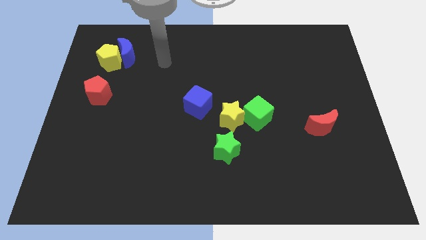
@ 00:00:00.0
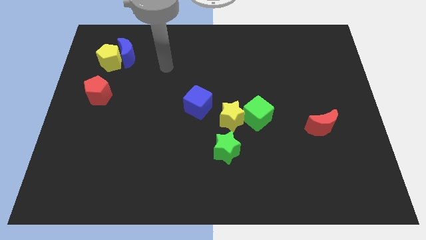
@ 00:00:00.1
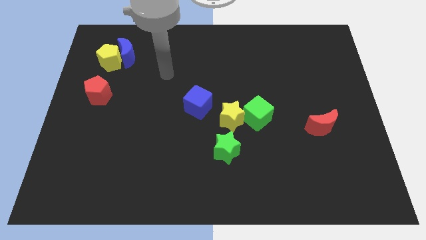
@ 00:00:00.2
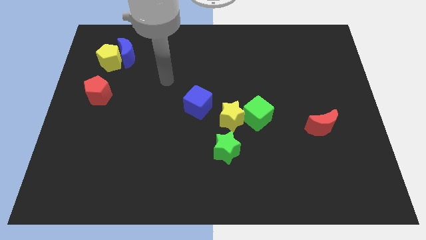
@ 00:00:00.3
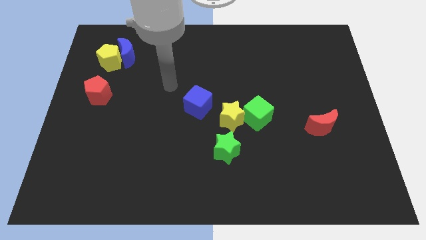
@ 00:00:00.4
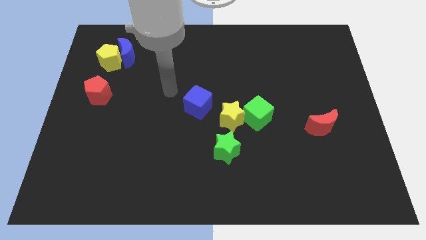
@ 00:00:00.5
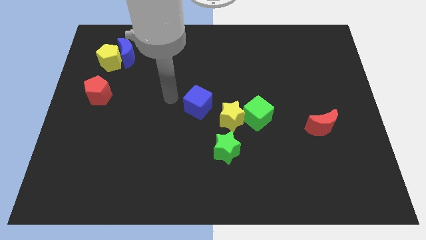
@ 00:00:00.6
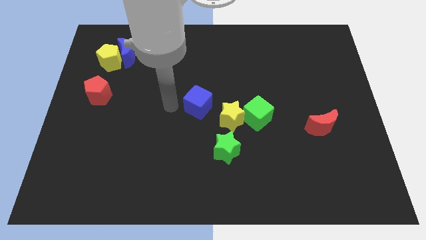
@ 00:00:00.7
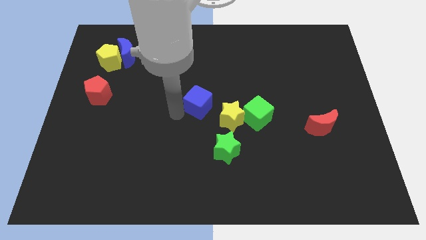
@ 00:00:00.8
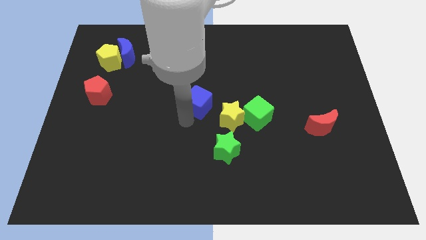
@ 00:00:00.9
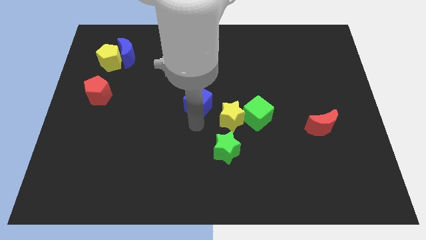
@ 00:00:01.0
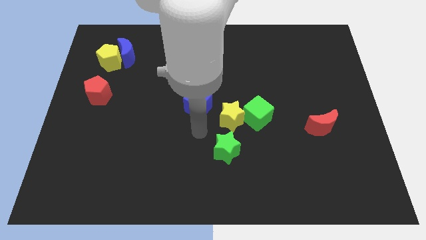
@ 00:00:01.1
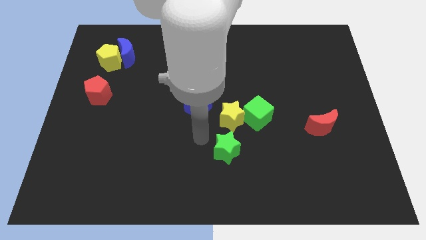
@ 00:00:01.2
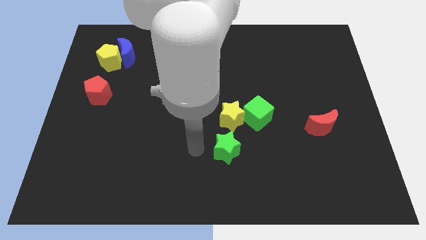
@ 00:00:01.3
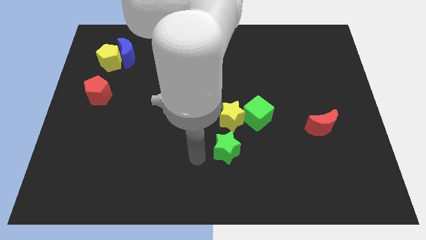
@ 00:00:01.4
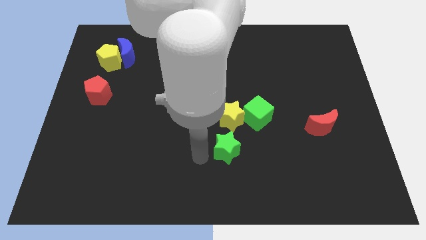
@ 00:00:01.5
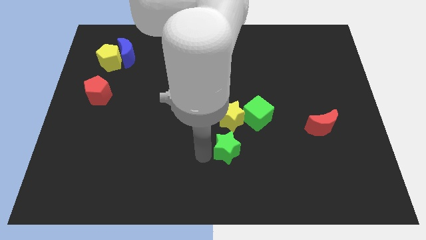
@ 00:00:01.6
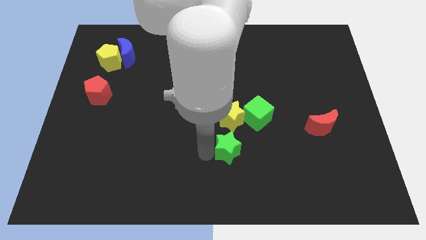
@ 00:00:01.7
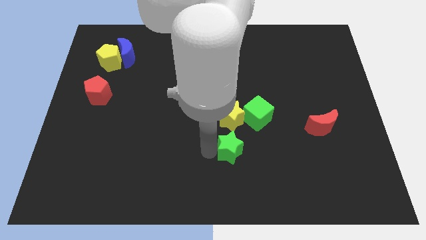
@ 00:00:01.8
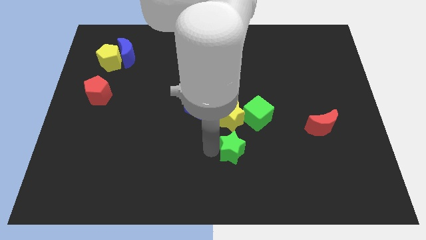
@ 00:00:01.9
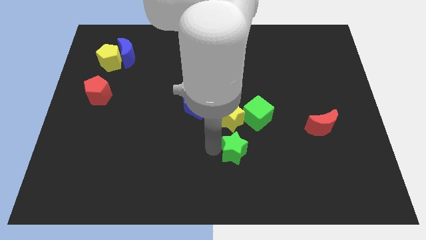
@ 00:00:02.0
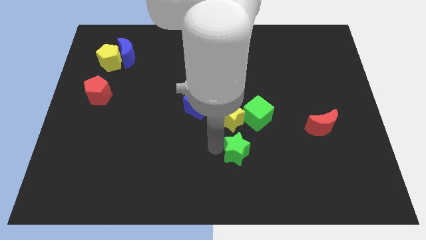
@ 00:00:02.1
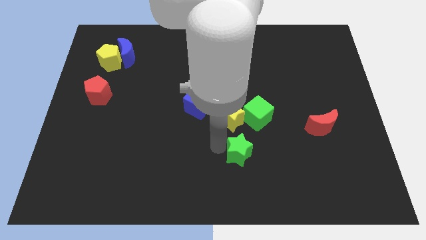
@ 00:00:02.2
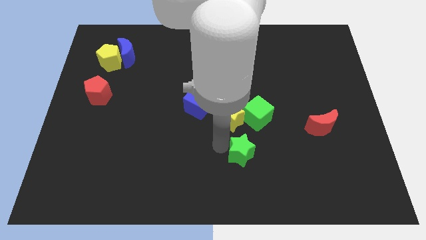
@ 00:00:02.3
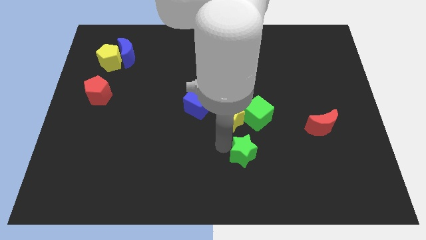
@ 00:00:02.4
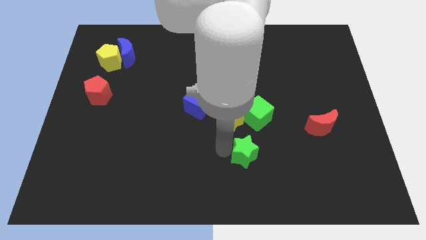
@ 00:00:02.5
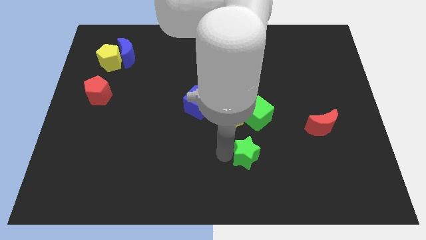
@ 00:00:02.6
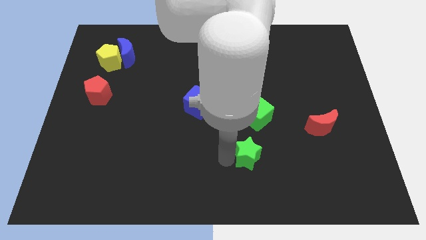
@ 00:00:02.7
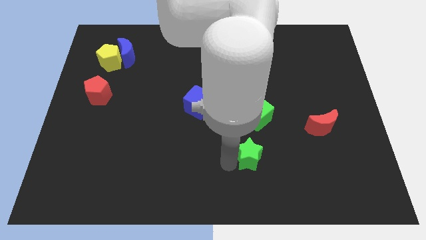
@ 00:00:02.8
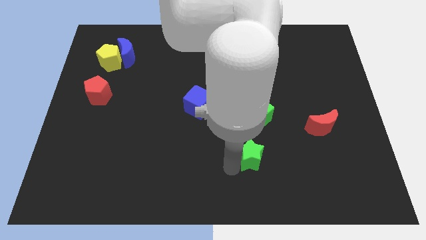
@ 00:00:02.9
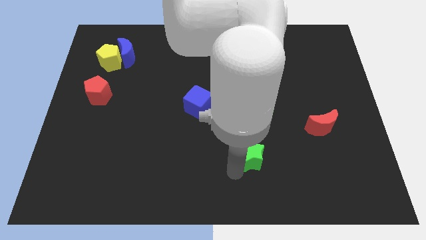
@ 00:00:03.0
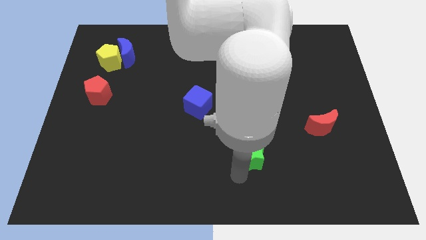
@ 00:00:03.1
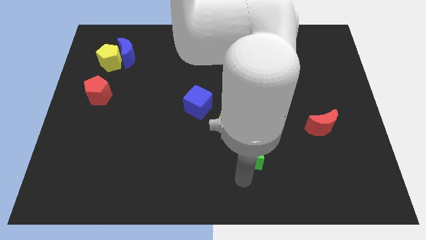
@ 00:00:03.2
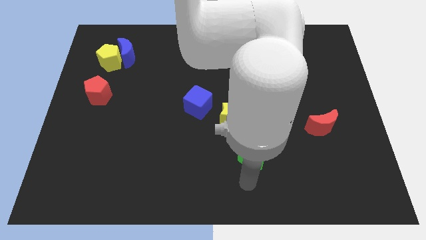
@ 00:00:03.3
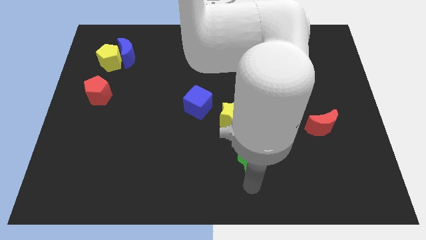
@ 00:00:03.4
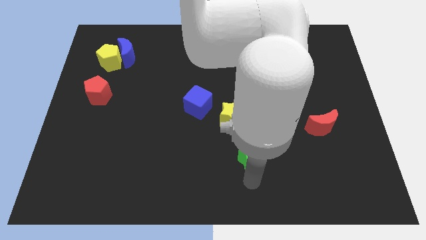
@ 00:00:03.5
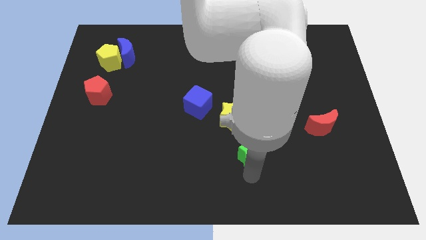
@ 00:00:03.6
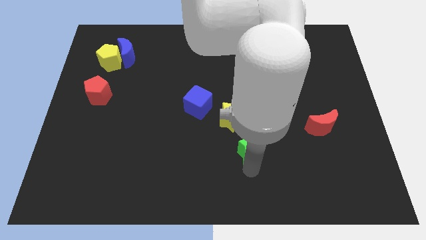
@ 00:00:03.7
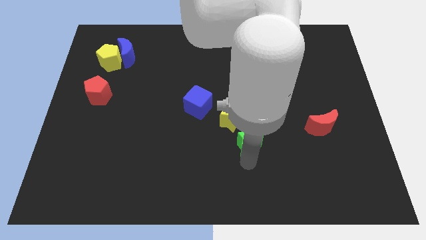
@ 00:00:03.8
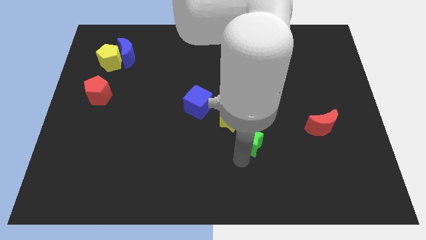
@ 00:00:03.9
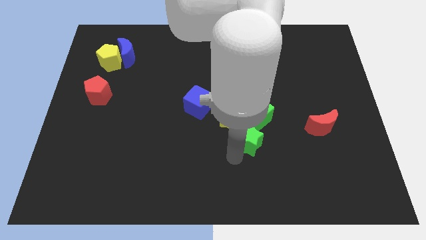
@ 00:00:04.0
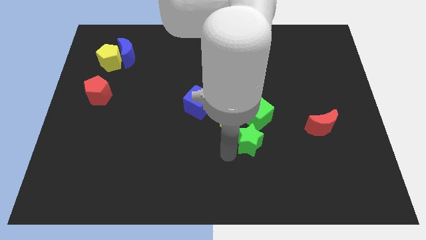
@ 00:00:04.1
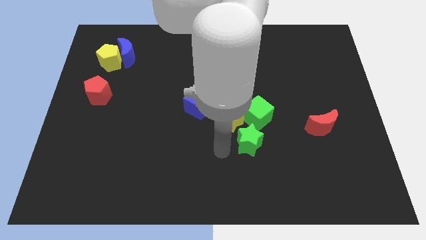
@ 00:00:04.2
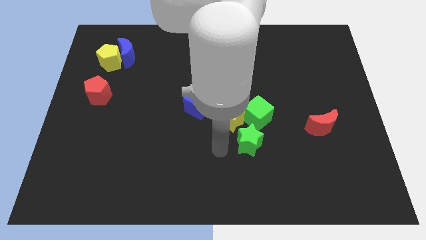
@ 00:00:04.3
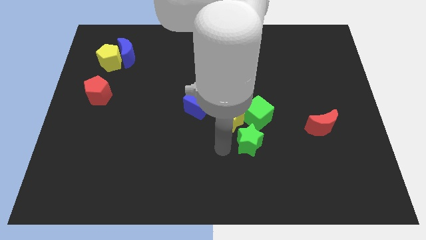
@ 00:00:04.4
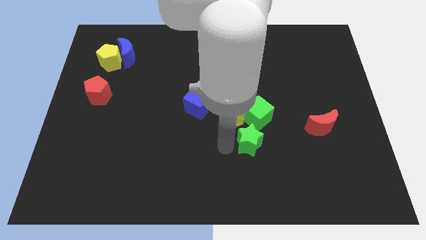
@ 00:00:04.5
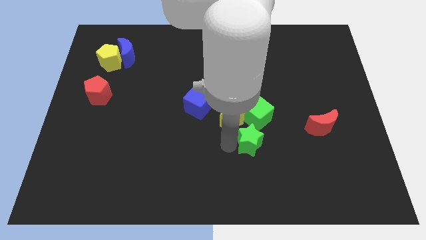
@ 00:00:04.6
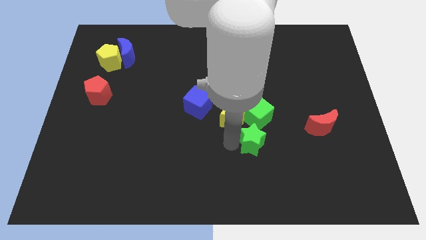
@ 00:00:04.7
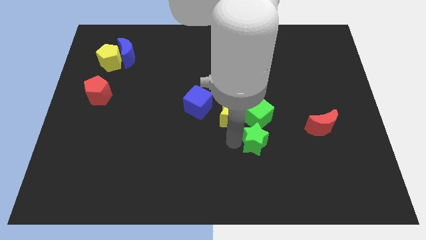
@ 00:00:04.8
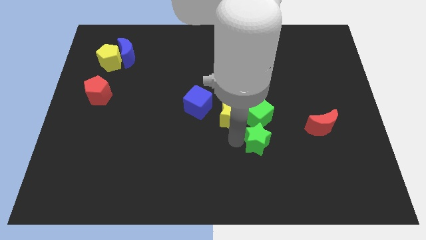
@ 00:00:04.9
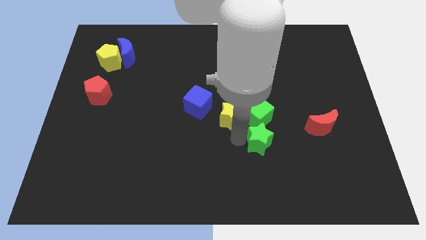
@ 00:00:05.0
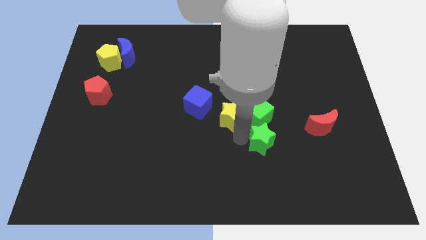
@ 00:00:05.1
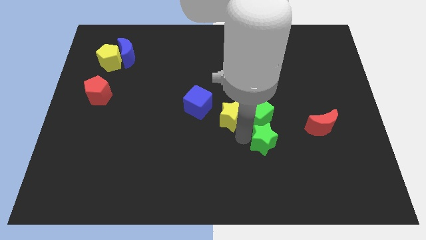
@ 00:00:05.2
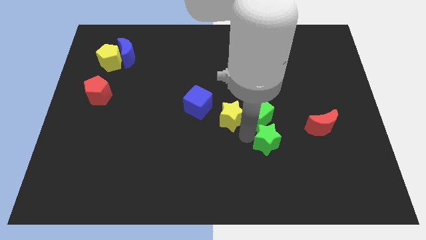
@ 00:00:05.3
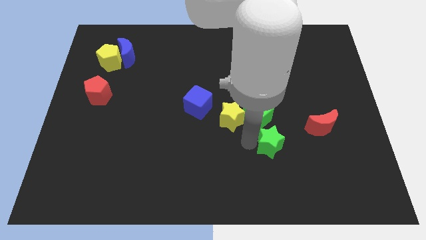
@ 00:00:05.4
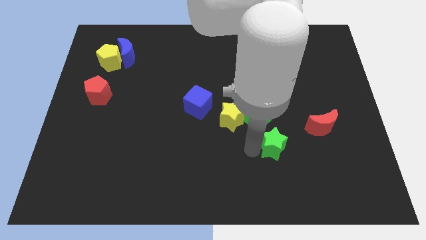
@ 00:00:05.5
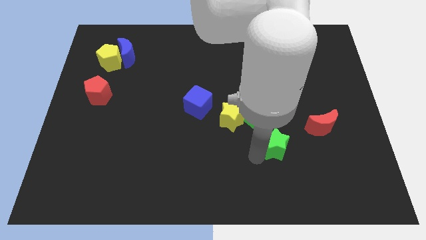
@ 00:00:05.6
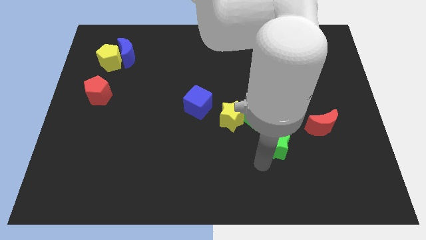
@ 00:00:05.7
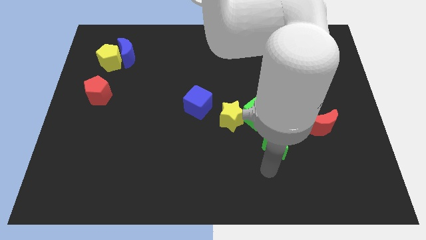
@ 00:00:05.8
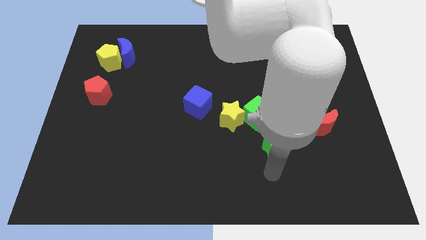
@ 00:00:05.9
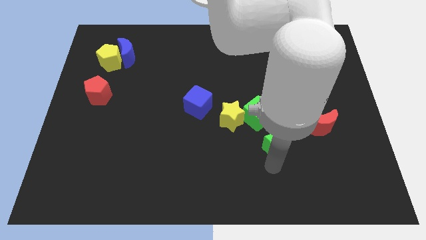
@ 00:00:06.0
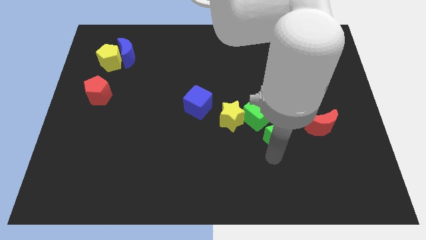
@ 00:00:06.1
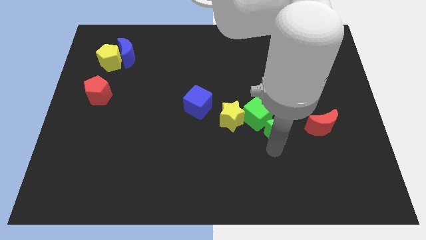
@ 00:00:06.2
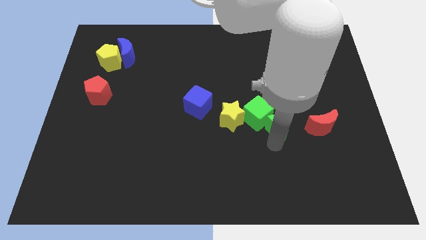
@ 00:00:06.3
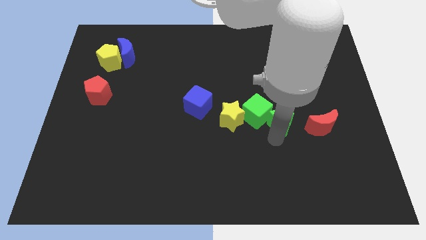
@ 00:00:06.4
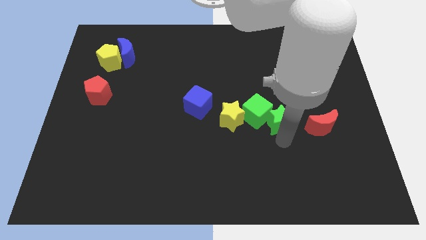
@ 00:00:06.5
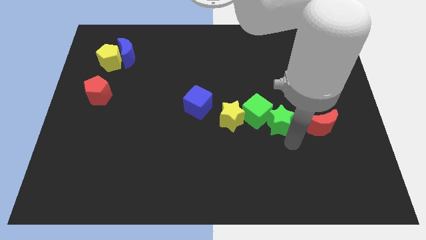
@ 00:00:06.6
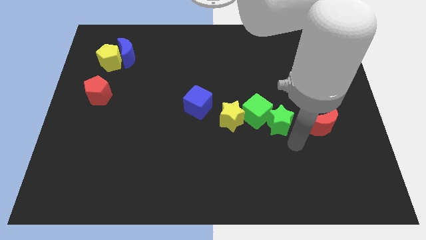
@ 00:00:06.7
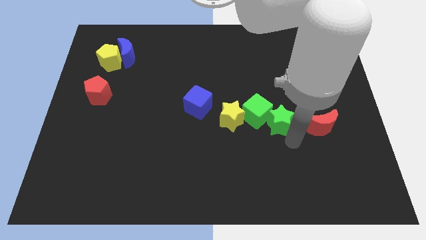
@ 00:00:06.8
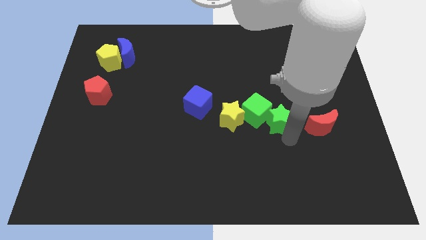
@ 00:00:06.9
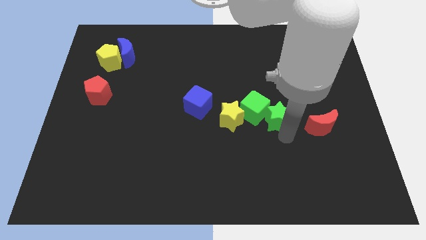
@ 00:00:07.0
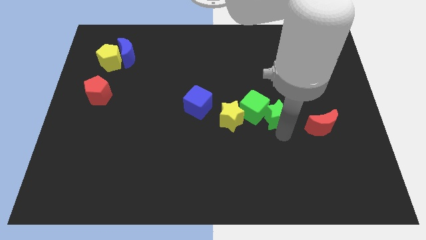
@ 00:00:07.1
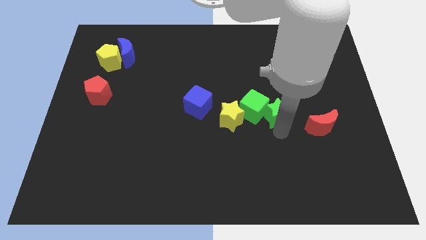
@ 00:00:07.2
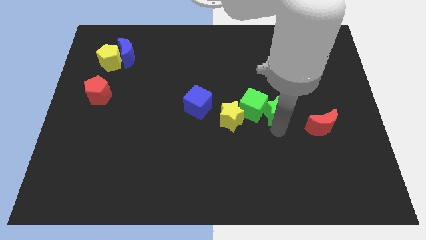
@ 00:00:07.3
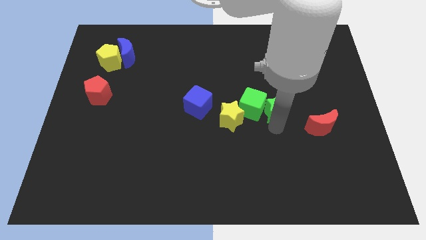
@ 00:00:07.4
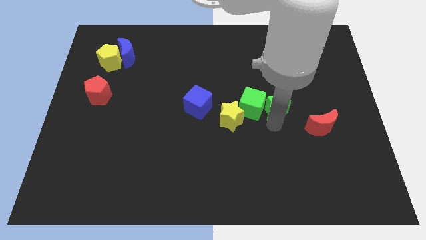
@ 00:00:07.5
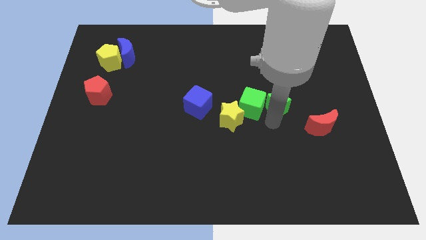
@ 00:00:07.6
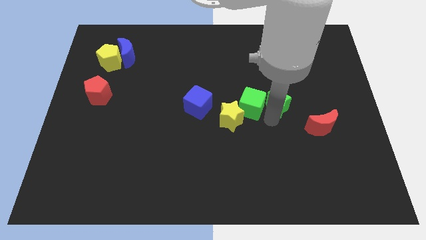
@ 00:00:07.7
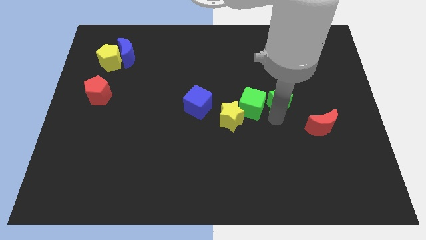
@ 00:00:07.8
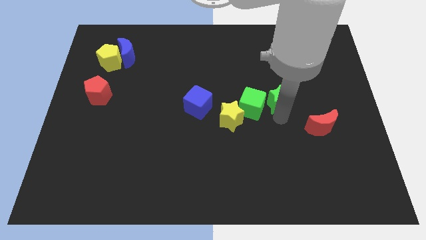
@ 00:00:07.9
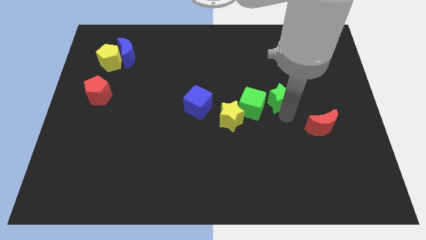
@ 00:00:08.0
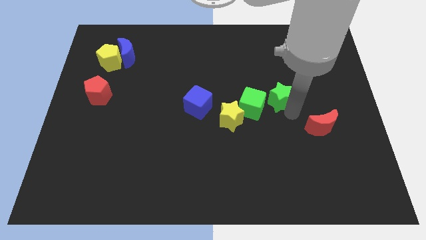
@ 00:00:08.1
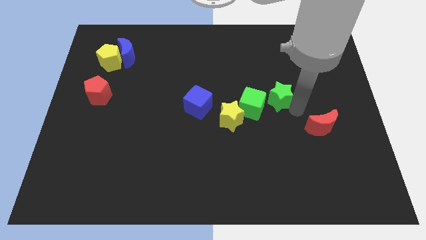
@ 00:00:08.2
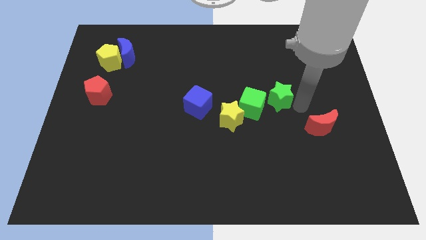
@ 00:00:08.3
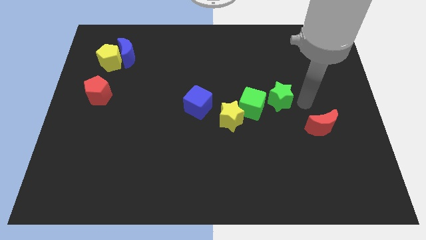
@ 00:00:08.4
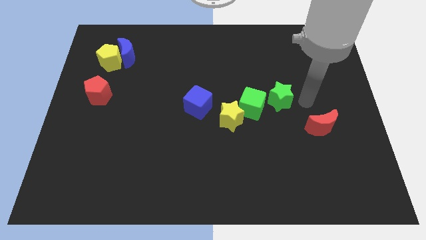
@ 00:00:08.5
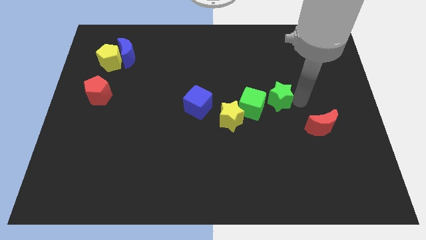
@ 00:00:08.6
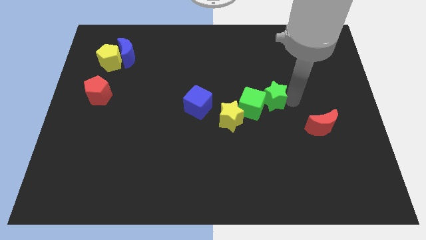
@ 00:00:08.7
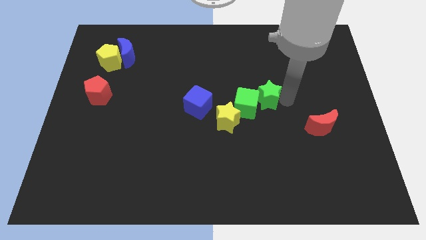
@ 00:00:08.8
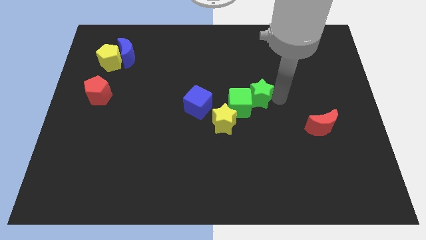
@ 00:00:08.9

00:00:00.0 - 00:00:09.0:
push the green star to the right of the blue cube
